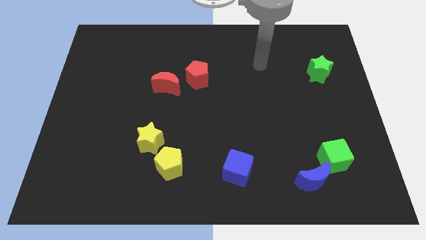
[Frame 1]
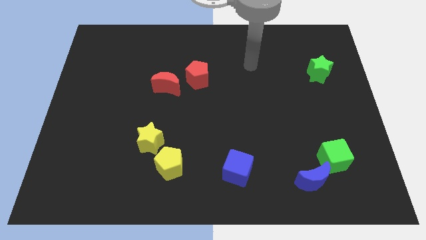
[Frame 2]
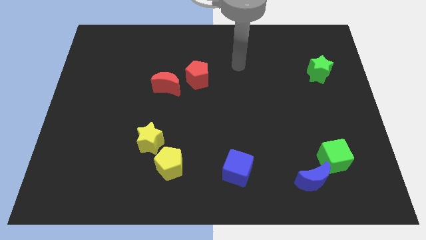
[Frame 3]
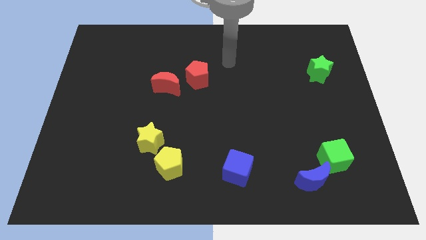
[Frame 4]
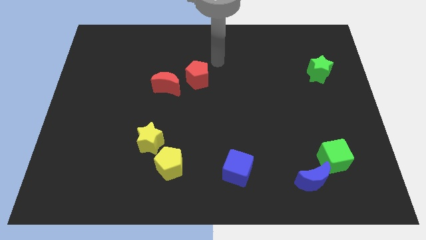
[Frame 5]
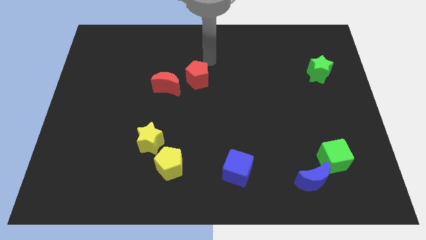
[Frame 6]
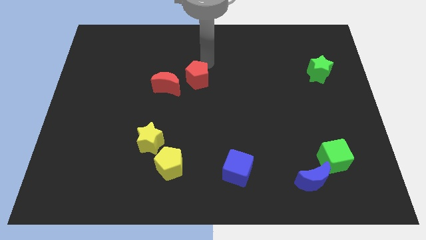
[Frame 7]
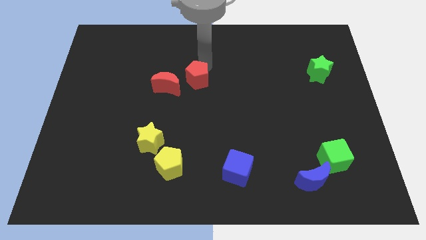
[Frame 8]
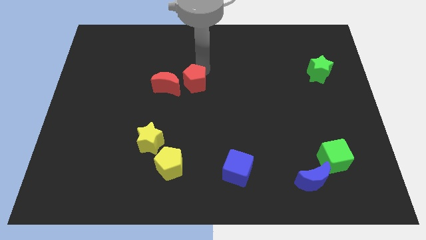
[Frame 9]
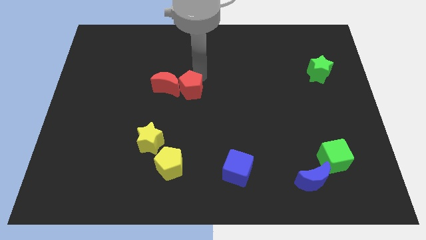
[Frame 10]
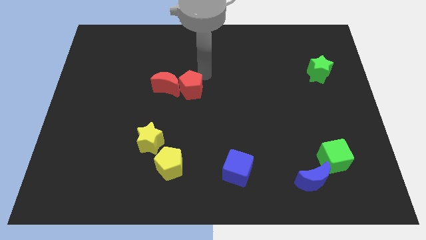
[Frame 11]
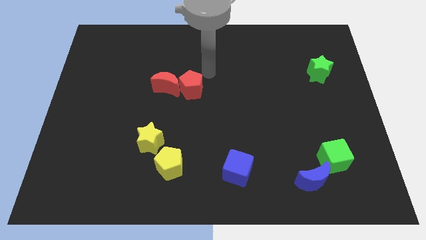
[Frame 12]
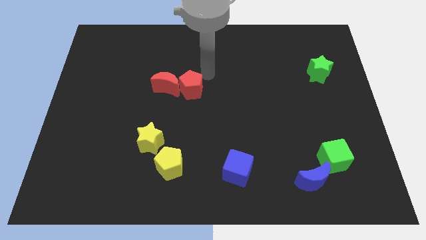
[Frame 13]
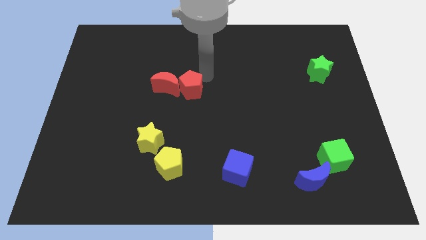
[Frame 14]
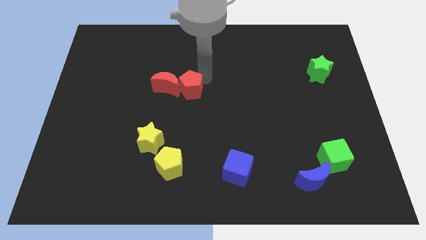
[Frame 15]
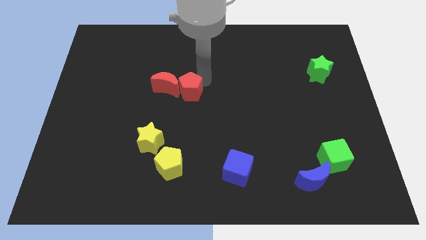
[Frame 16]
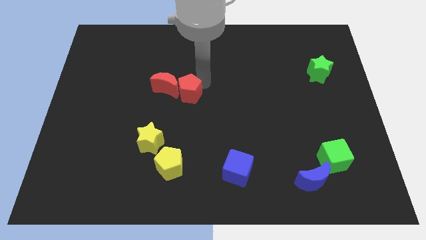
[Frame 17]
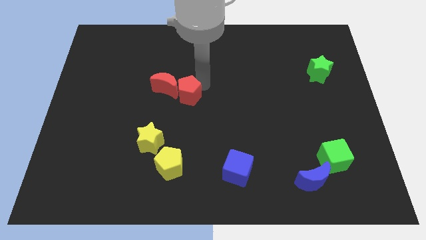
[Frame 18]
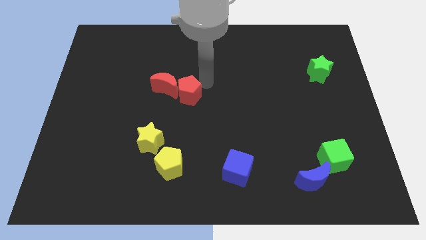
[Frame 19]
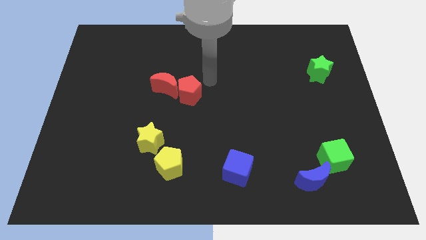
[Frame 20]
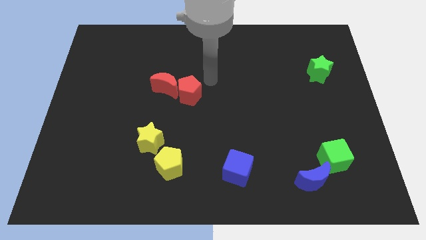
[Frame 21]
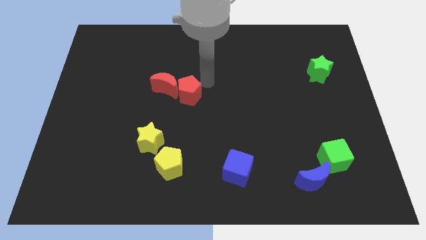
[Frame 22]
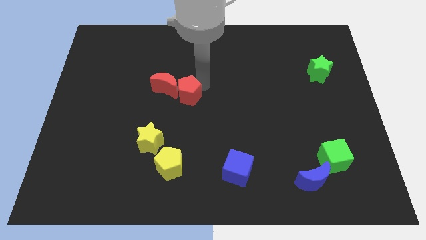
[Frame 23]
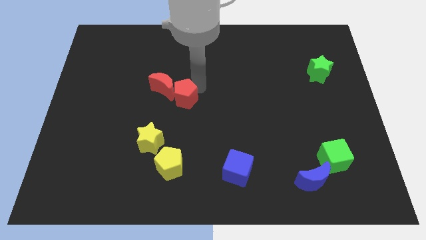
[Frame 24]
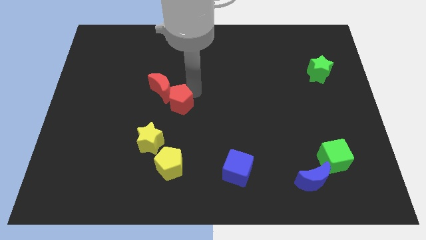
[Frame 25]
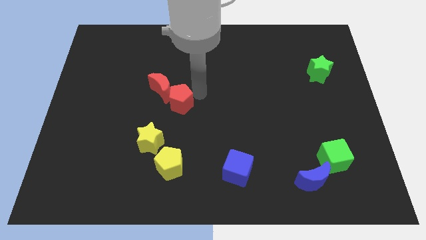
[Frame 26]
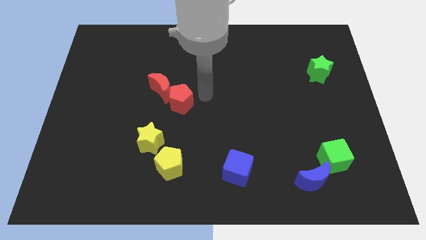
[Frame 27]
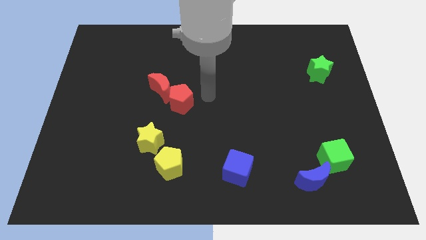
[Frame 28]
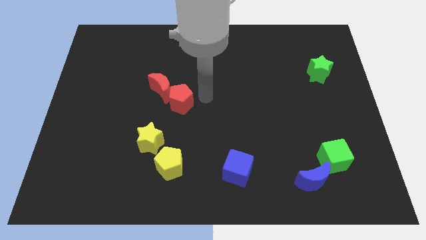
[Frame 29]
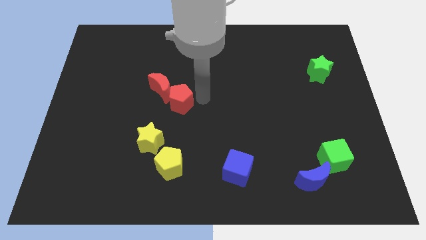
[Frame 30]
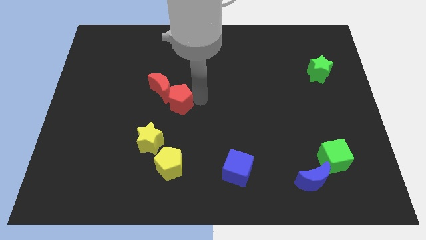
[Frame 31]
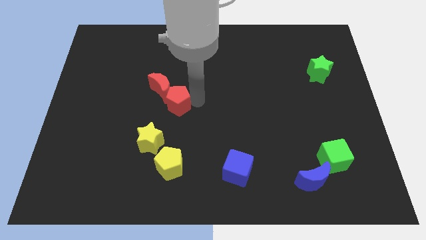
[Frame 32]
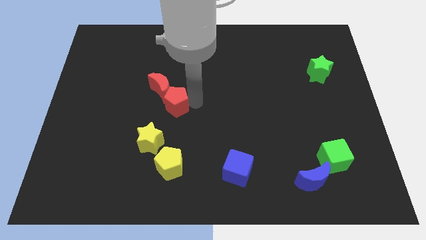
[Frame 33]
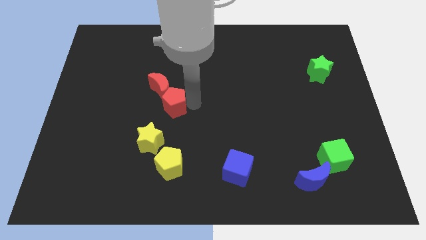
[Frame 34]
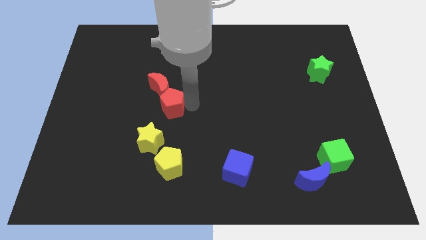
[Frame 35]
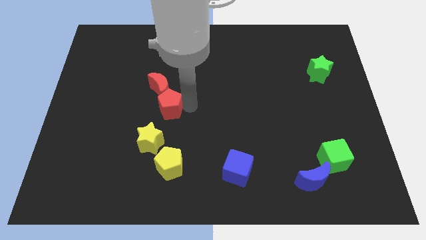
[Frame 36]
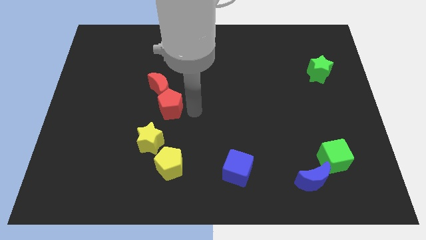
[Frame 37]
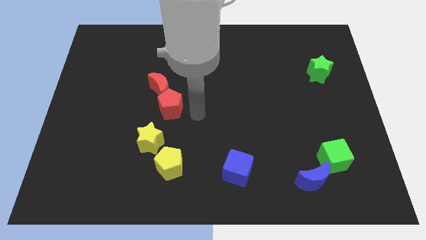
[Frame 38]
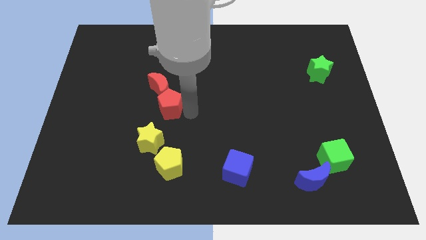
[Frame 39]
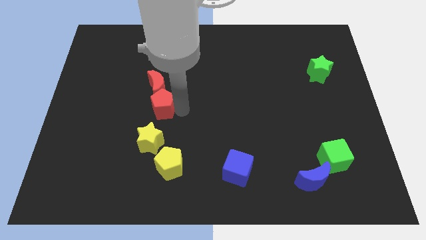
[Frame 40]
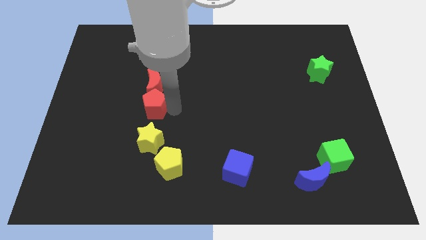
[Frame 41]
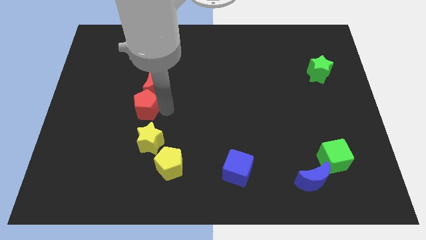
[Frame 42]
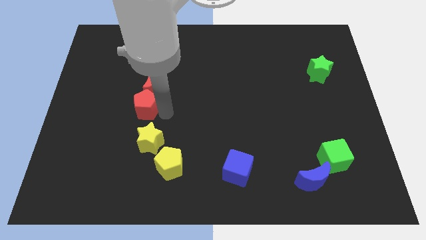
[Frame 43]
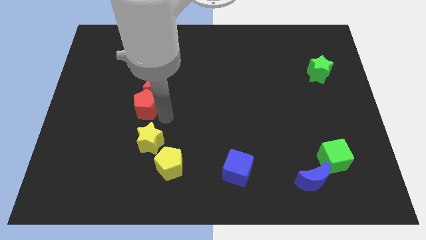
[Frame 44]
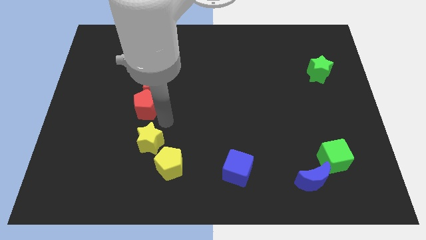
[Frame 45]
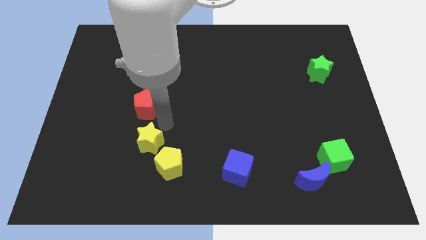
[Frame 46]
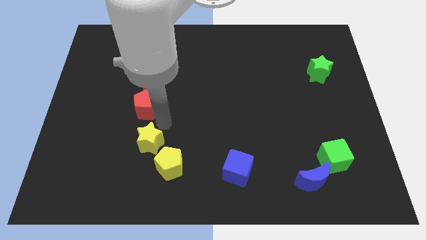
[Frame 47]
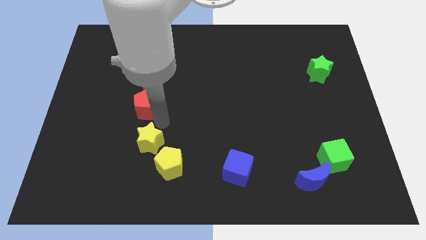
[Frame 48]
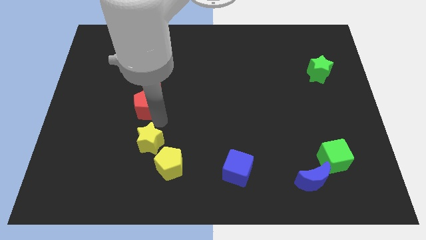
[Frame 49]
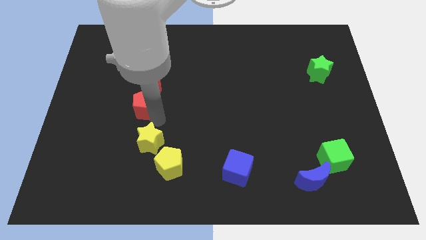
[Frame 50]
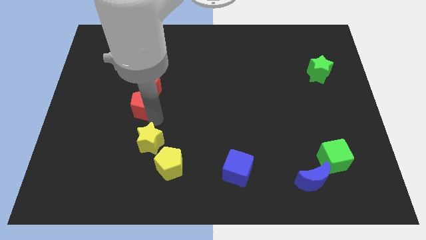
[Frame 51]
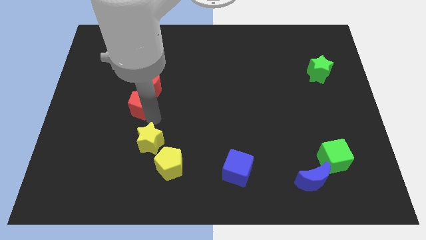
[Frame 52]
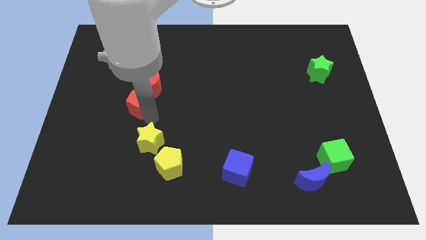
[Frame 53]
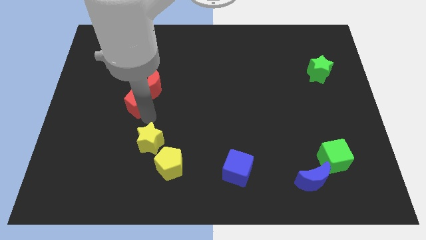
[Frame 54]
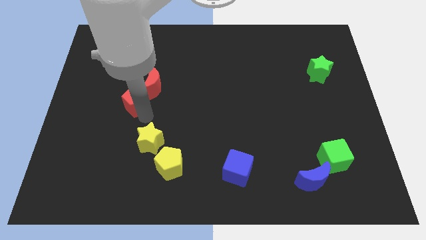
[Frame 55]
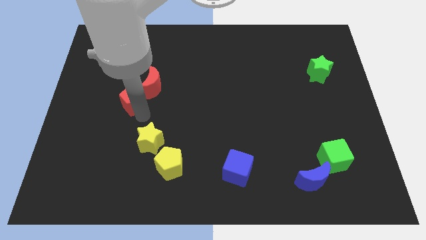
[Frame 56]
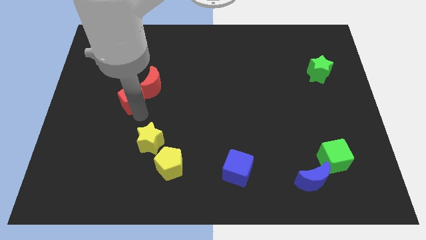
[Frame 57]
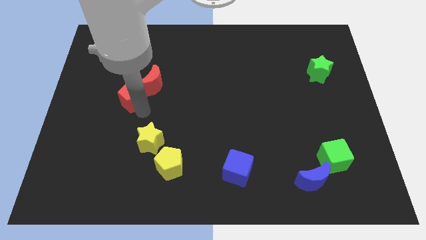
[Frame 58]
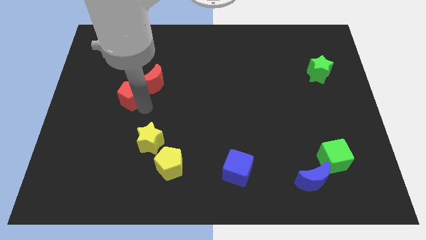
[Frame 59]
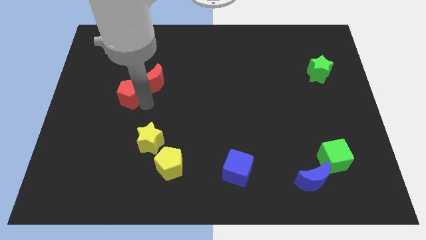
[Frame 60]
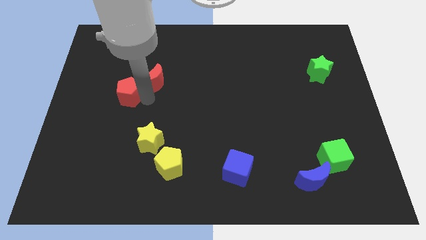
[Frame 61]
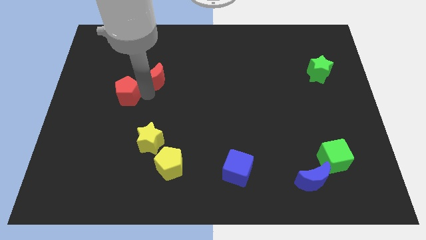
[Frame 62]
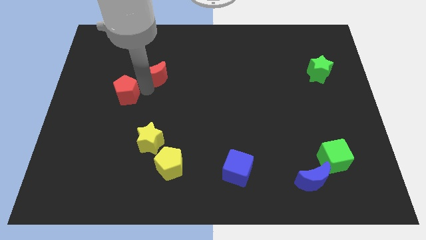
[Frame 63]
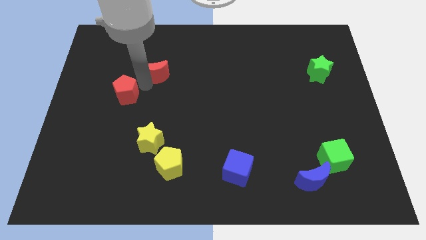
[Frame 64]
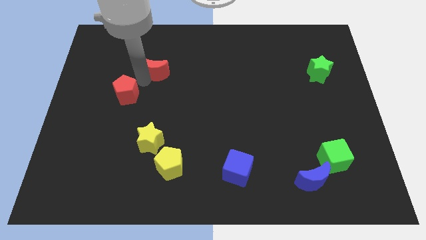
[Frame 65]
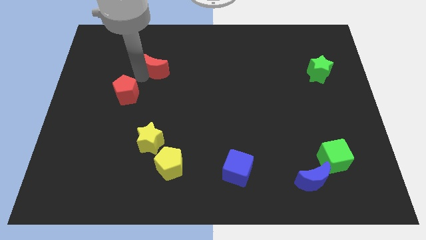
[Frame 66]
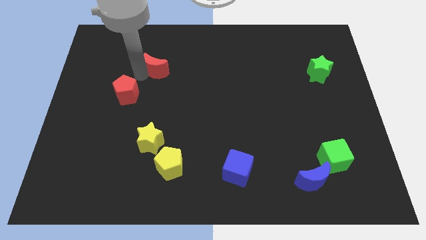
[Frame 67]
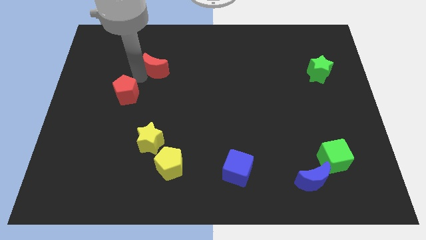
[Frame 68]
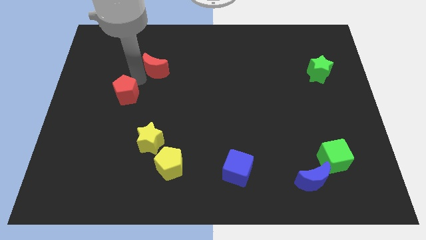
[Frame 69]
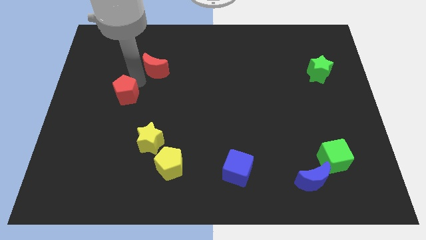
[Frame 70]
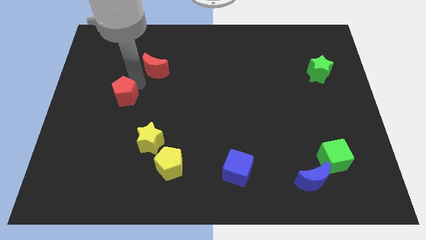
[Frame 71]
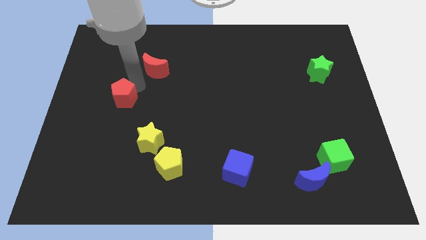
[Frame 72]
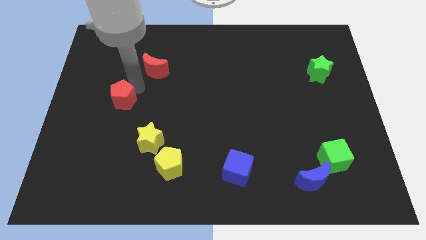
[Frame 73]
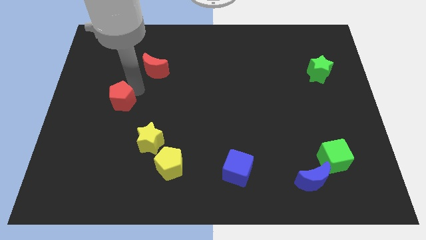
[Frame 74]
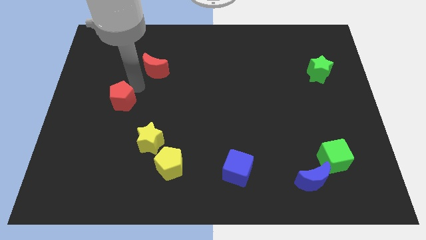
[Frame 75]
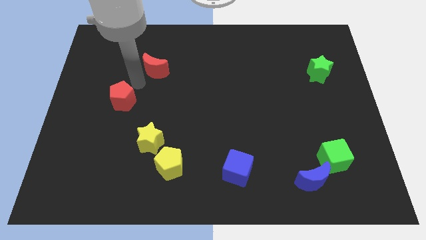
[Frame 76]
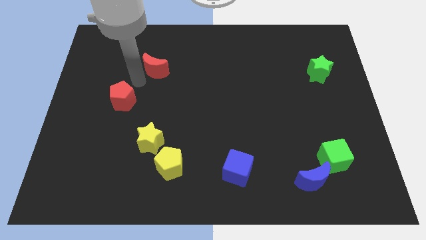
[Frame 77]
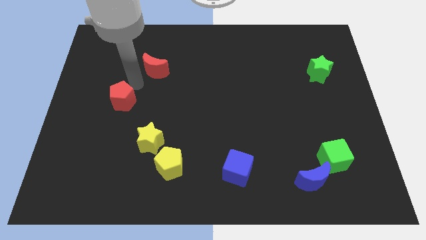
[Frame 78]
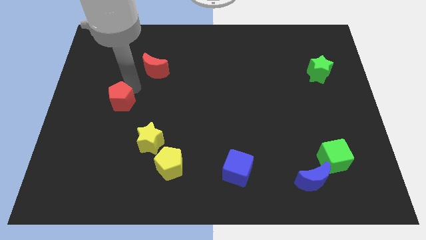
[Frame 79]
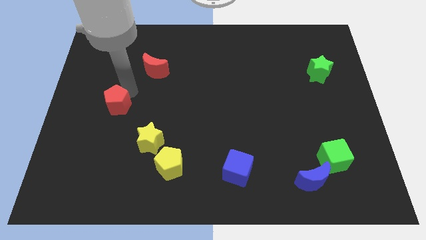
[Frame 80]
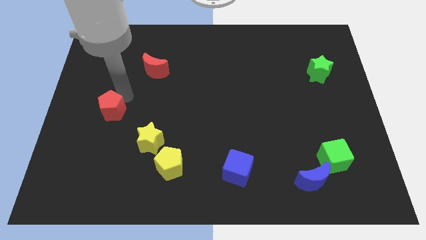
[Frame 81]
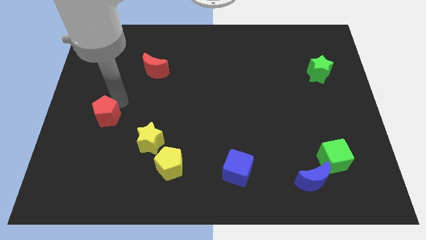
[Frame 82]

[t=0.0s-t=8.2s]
move the red pentagon downwards and left diagonally
